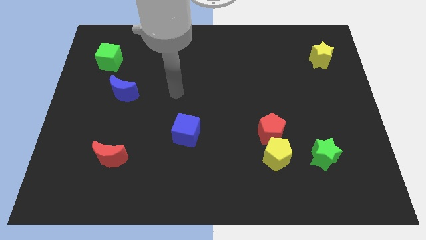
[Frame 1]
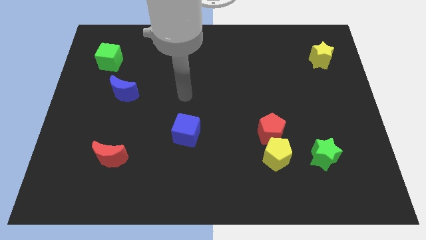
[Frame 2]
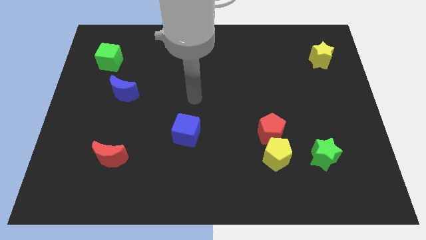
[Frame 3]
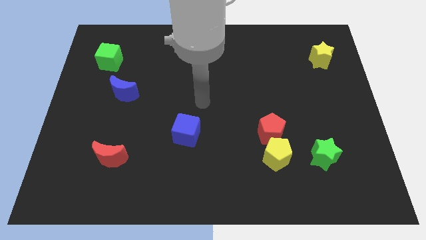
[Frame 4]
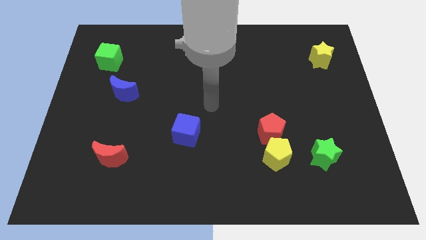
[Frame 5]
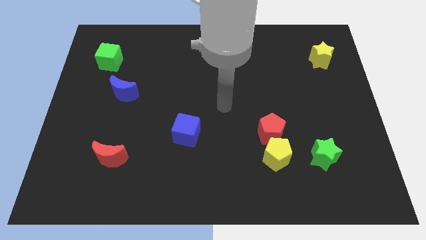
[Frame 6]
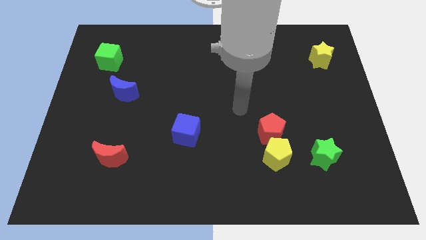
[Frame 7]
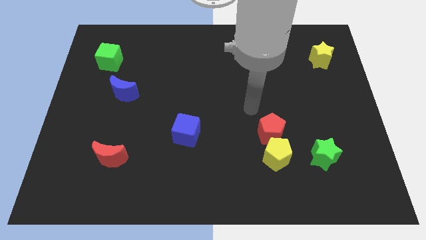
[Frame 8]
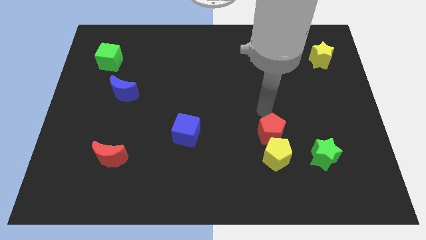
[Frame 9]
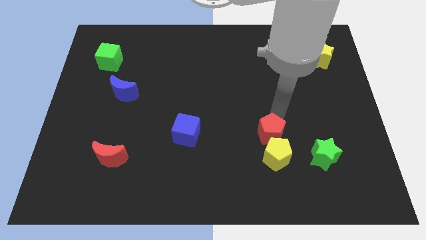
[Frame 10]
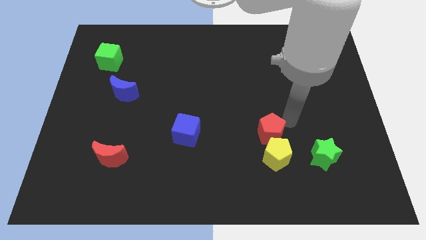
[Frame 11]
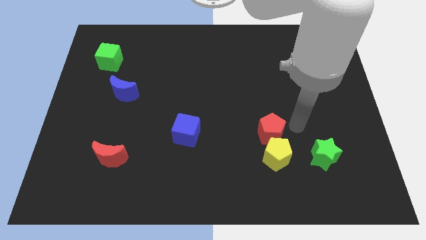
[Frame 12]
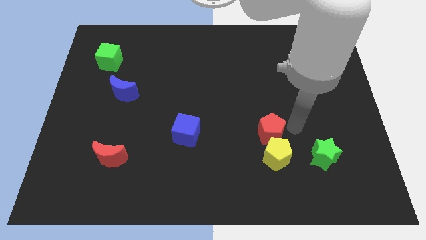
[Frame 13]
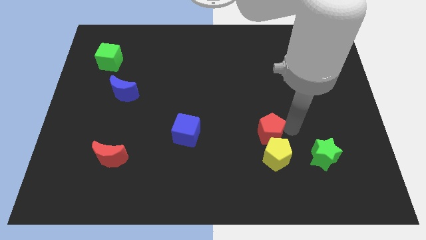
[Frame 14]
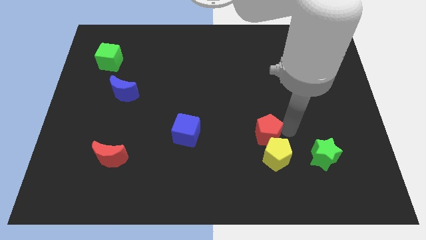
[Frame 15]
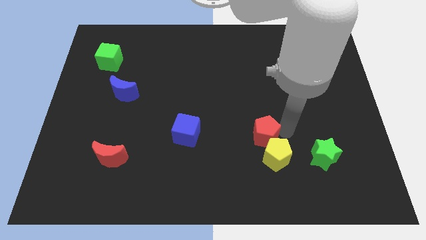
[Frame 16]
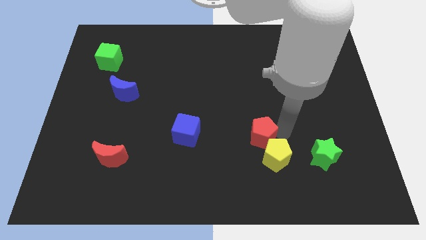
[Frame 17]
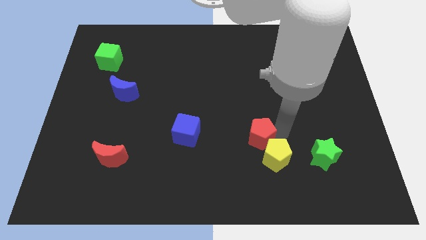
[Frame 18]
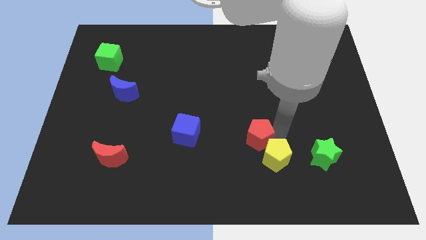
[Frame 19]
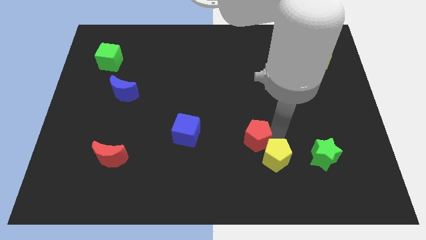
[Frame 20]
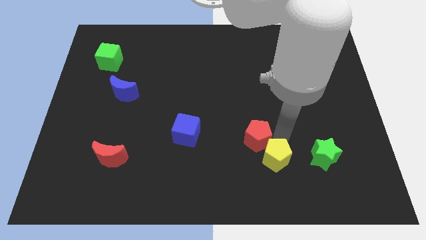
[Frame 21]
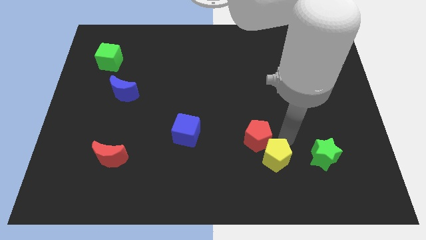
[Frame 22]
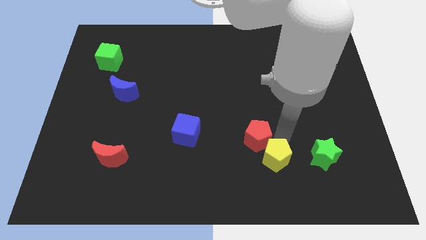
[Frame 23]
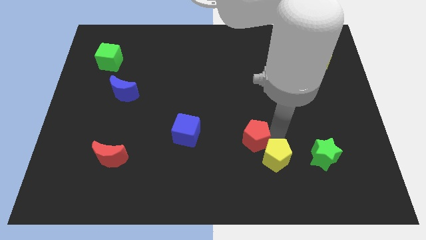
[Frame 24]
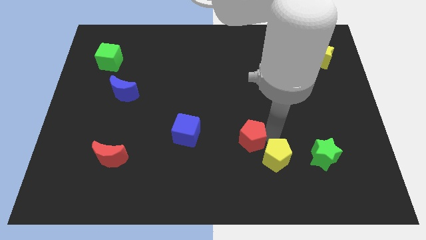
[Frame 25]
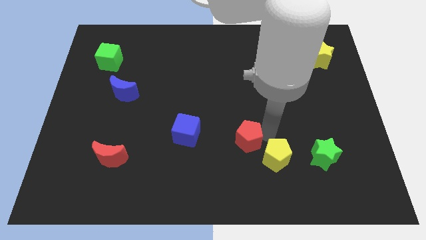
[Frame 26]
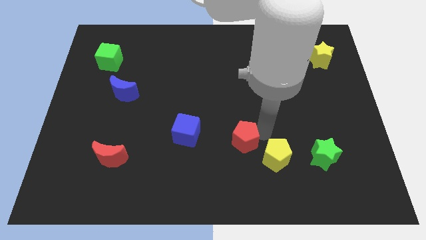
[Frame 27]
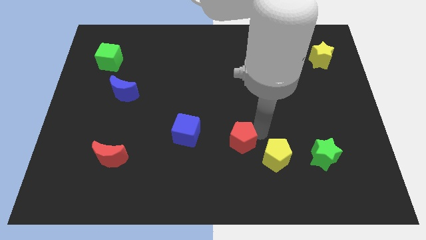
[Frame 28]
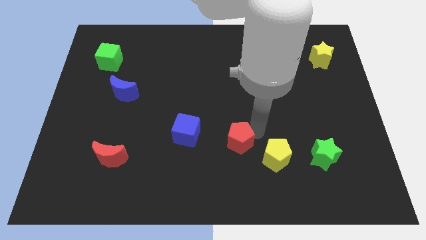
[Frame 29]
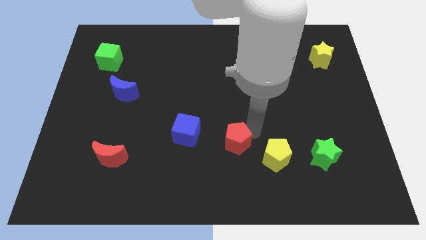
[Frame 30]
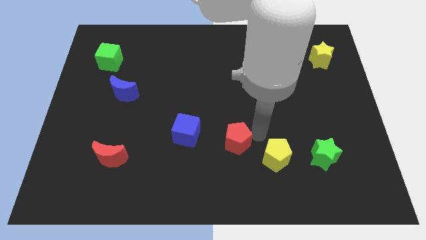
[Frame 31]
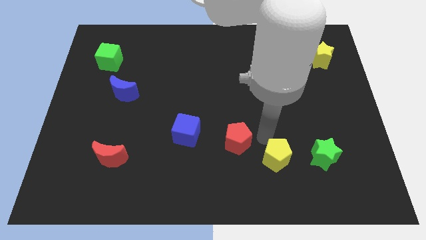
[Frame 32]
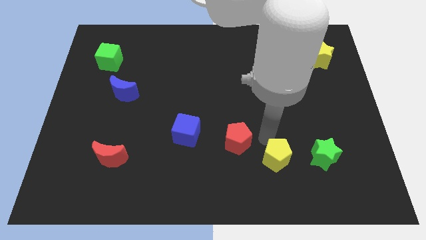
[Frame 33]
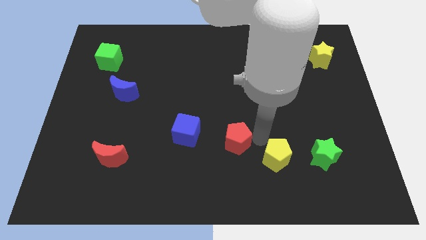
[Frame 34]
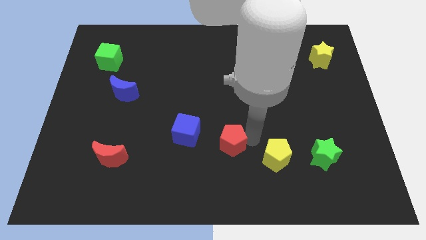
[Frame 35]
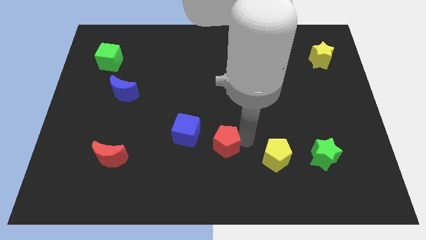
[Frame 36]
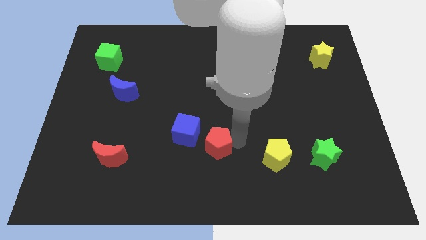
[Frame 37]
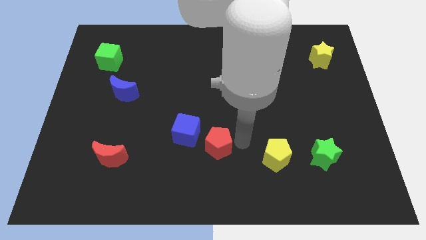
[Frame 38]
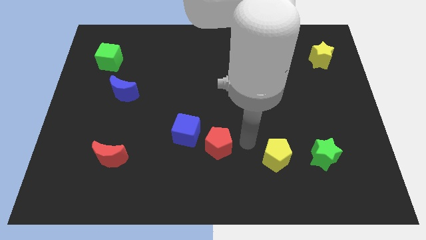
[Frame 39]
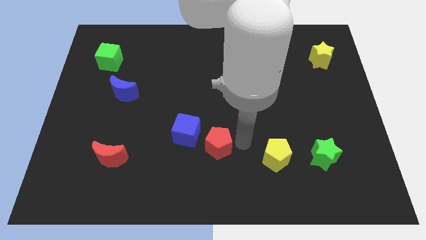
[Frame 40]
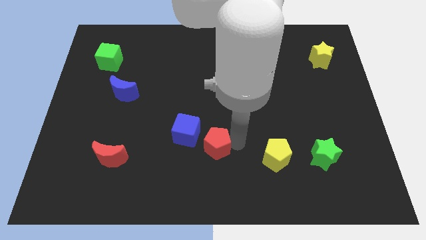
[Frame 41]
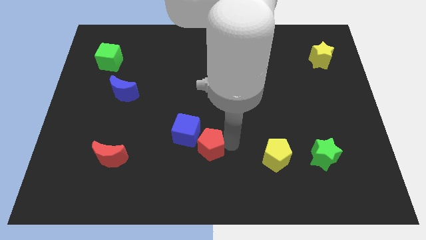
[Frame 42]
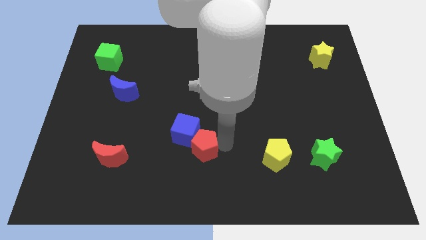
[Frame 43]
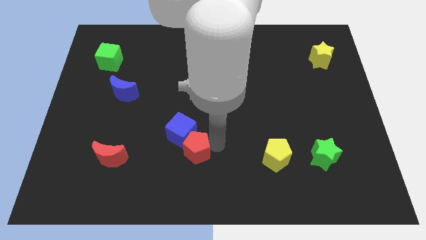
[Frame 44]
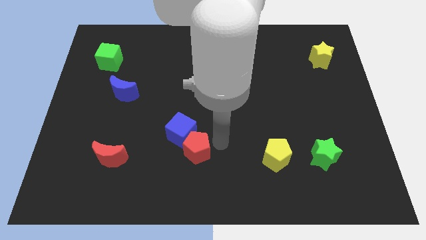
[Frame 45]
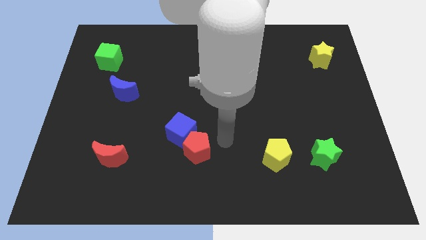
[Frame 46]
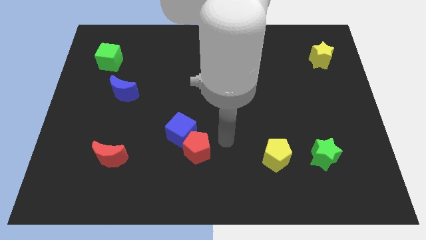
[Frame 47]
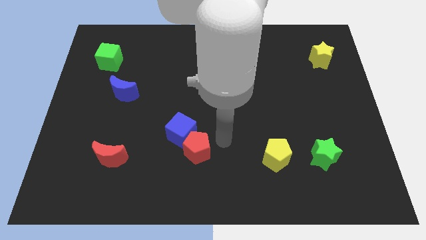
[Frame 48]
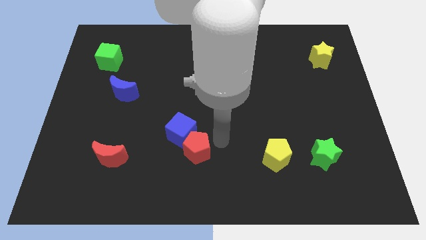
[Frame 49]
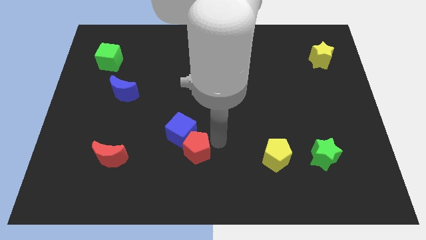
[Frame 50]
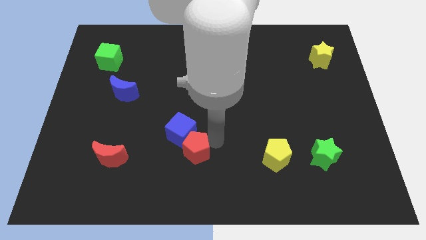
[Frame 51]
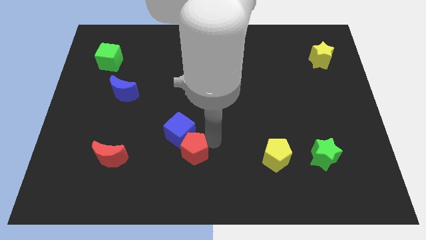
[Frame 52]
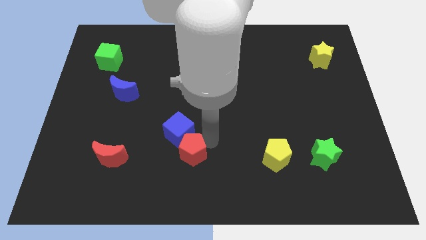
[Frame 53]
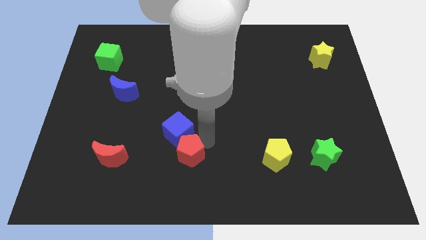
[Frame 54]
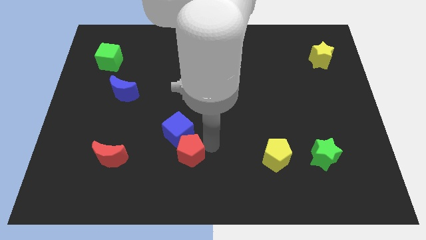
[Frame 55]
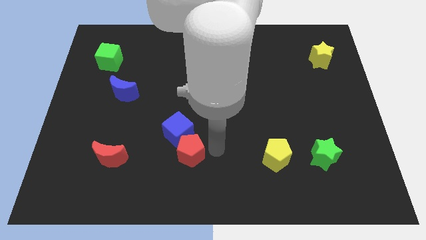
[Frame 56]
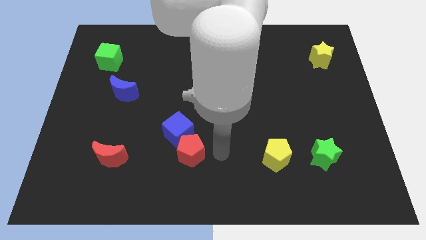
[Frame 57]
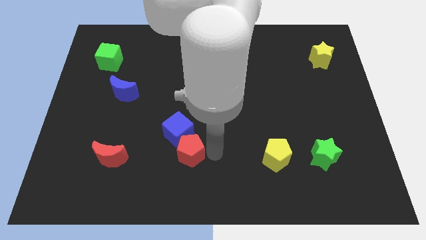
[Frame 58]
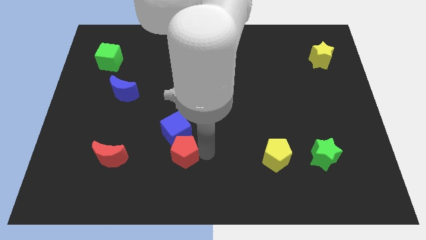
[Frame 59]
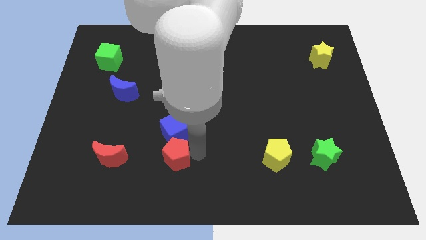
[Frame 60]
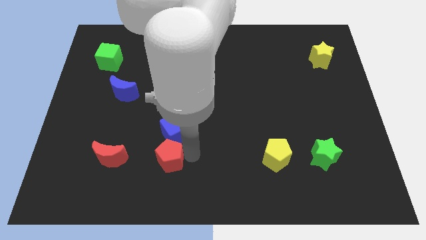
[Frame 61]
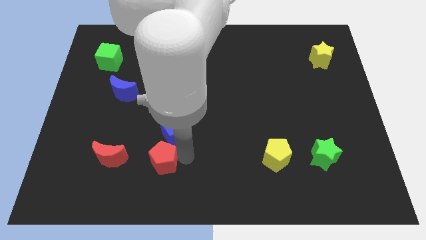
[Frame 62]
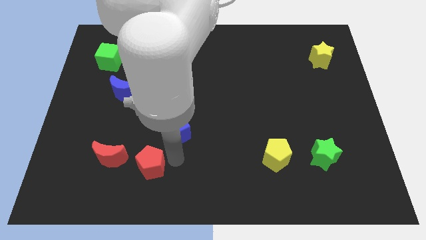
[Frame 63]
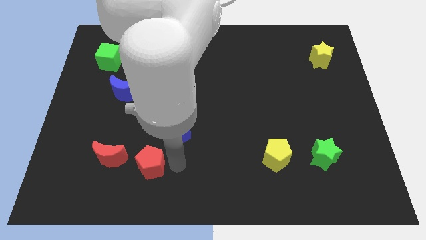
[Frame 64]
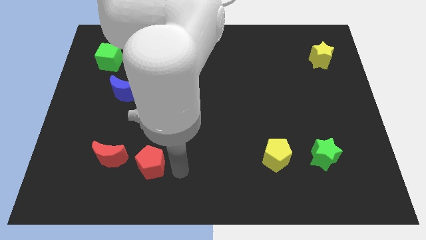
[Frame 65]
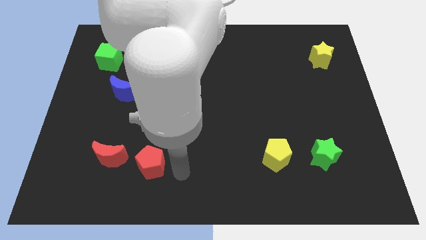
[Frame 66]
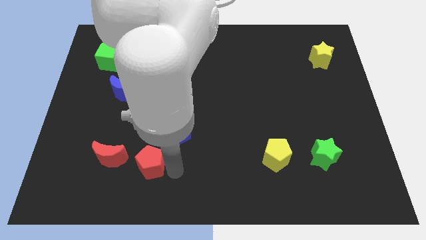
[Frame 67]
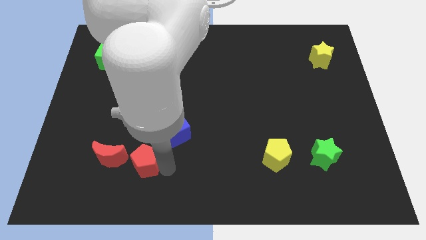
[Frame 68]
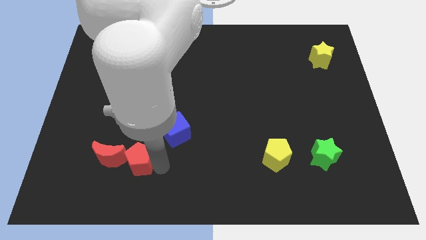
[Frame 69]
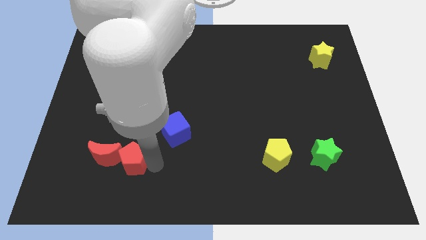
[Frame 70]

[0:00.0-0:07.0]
slide the red pentagon next to the red moon
